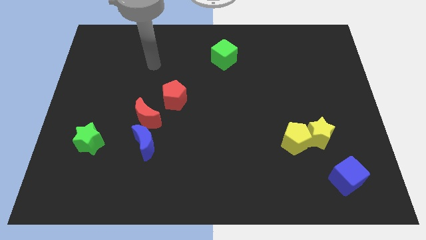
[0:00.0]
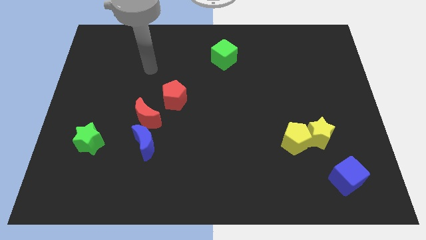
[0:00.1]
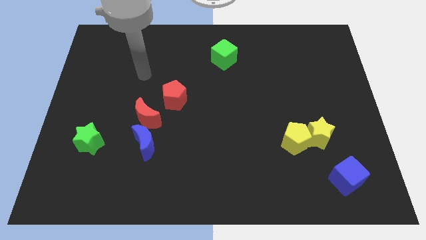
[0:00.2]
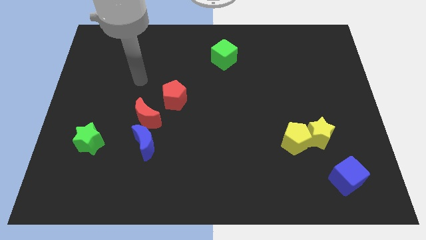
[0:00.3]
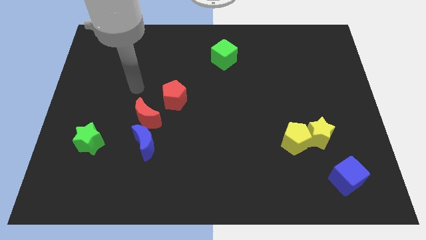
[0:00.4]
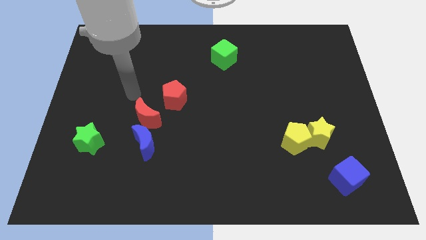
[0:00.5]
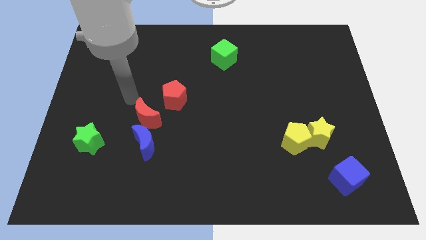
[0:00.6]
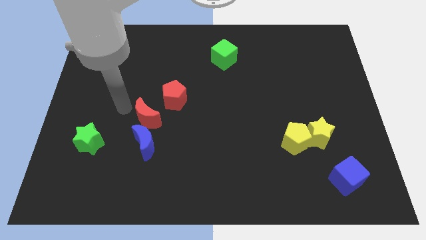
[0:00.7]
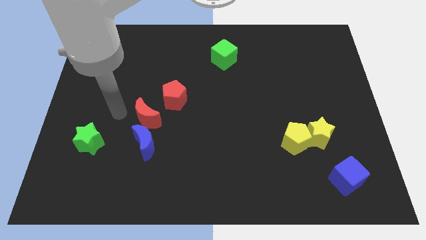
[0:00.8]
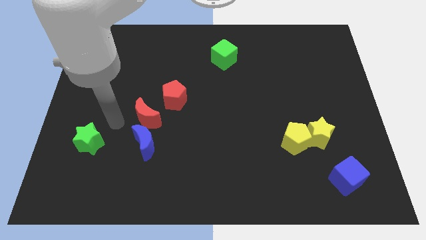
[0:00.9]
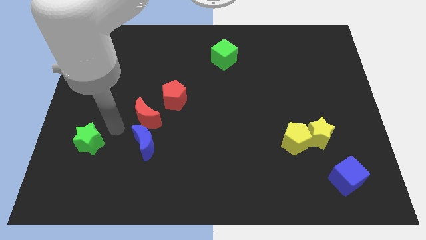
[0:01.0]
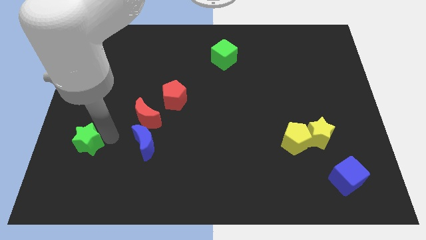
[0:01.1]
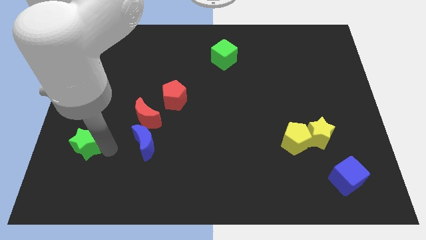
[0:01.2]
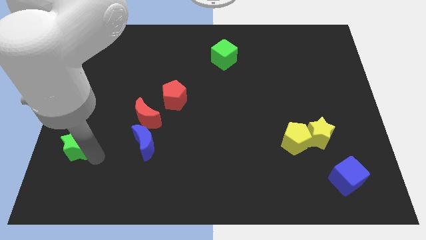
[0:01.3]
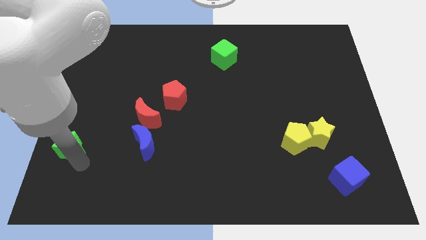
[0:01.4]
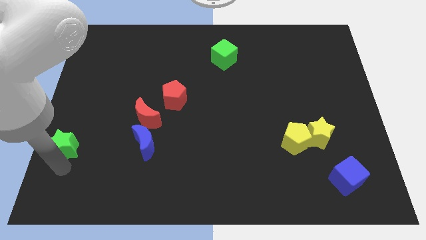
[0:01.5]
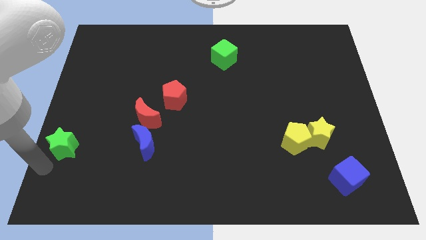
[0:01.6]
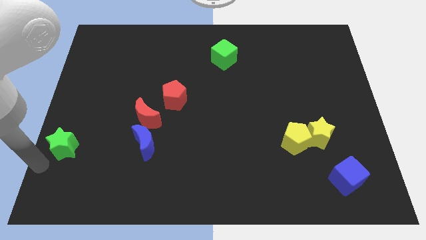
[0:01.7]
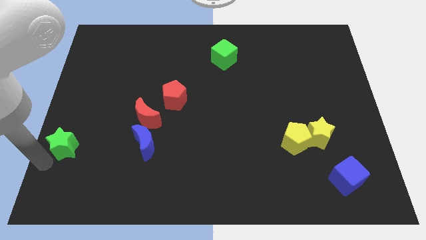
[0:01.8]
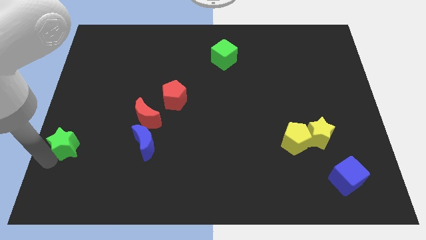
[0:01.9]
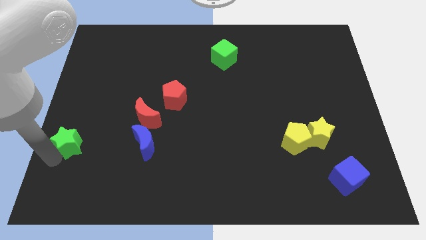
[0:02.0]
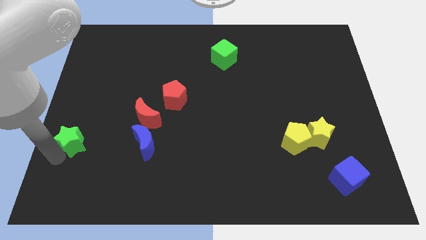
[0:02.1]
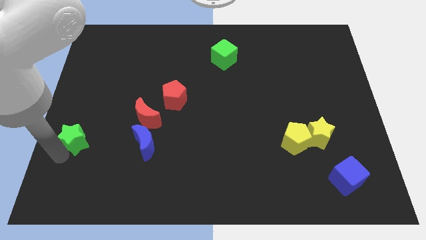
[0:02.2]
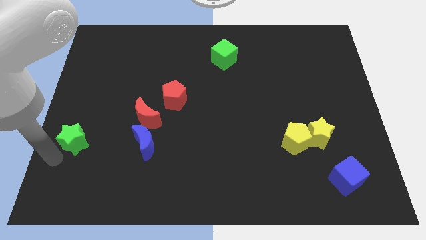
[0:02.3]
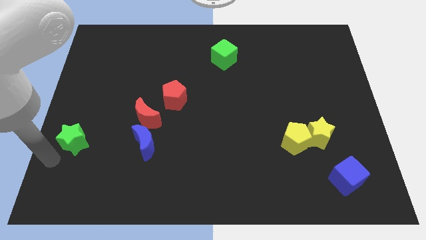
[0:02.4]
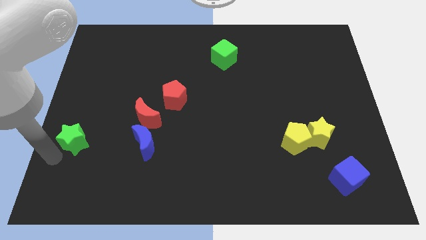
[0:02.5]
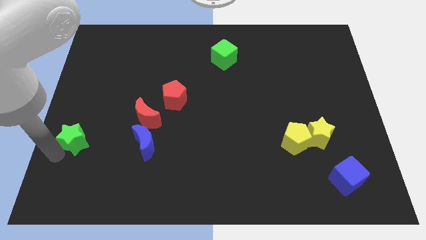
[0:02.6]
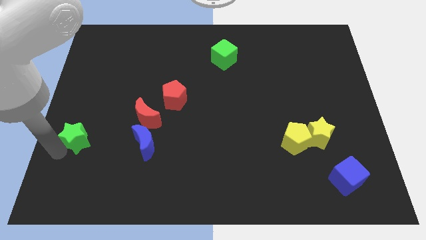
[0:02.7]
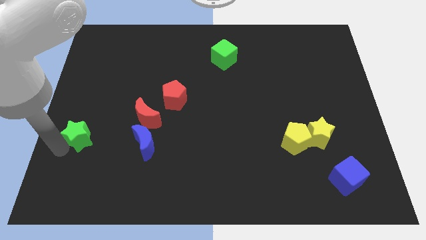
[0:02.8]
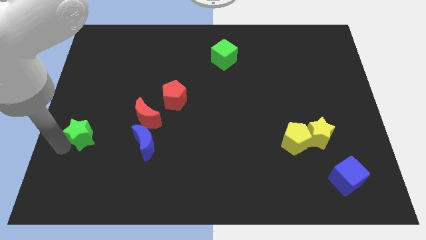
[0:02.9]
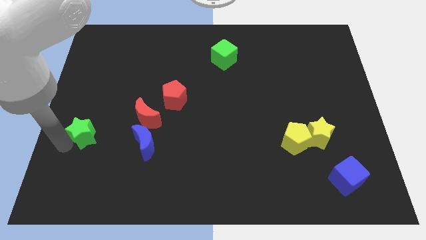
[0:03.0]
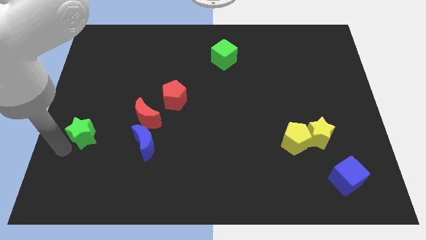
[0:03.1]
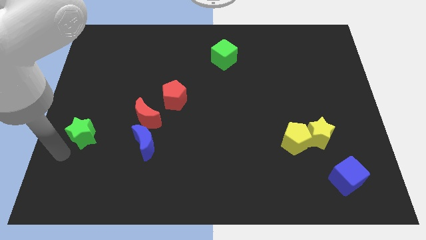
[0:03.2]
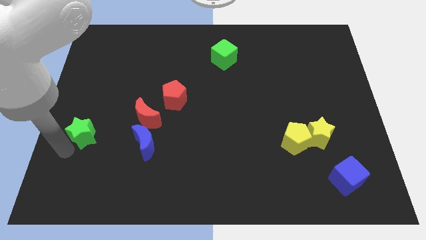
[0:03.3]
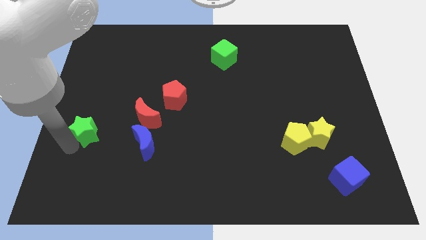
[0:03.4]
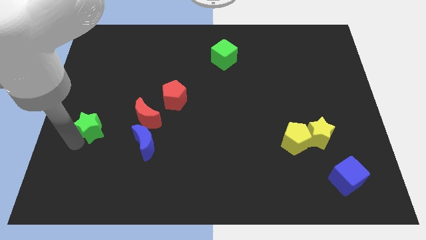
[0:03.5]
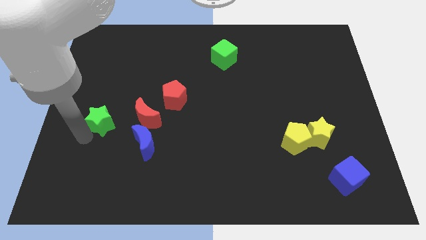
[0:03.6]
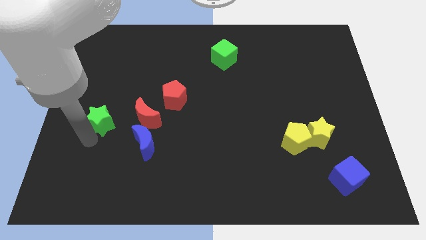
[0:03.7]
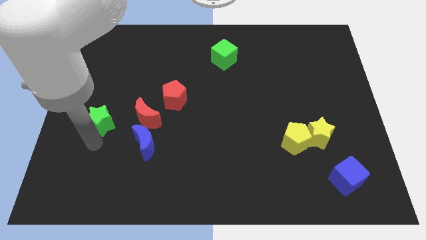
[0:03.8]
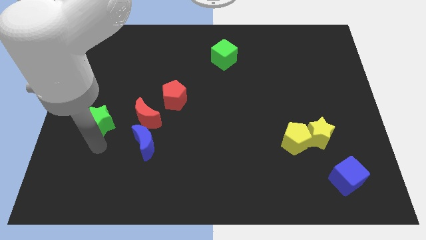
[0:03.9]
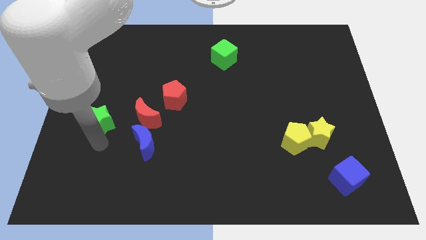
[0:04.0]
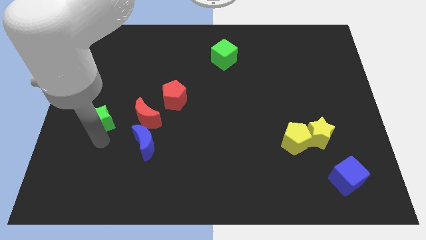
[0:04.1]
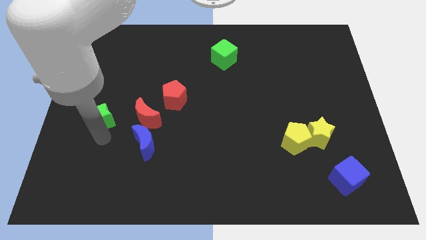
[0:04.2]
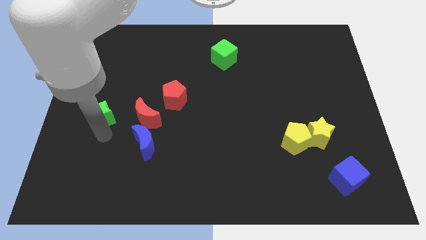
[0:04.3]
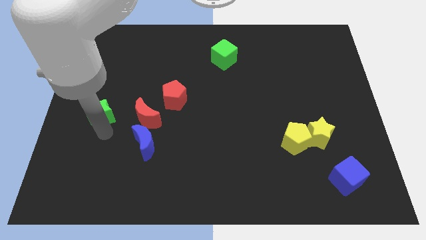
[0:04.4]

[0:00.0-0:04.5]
slightly slide the green star upwards

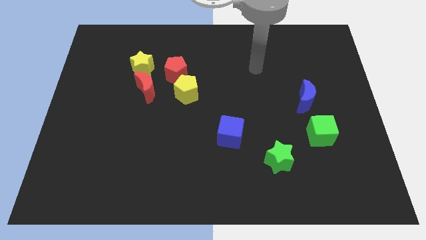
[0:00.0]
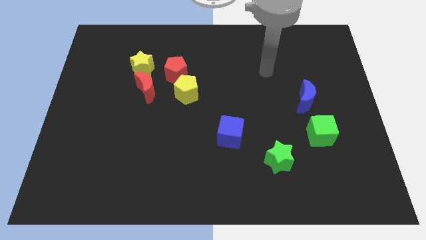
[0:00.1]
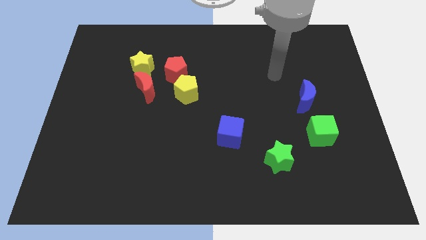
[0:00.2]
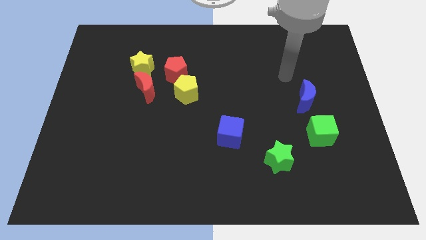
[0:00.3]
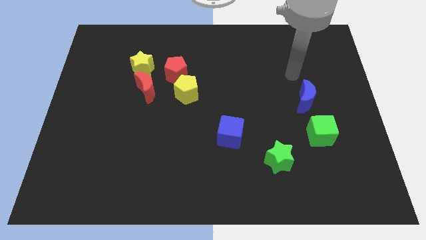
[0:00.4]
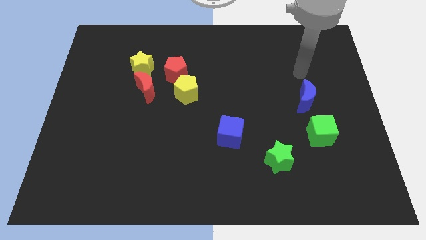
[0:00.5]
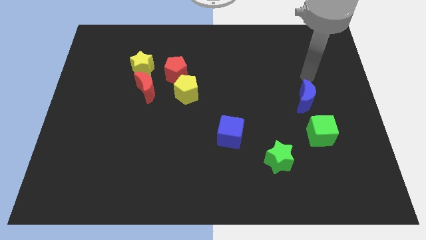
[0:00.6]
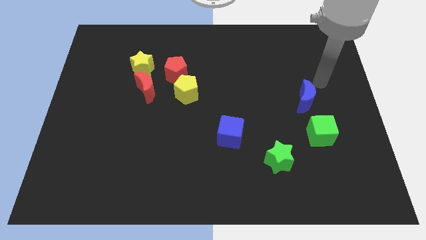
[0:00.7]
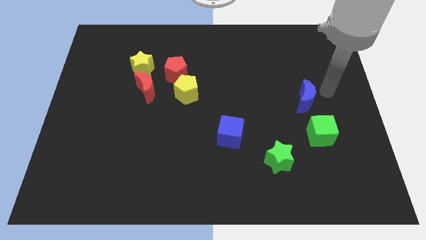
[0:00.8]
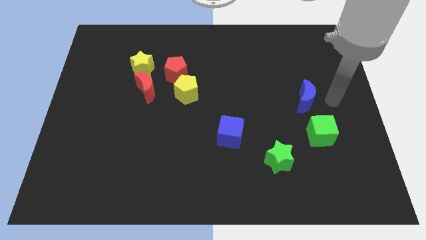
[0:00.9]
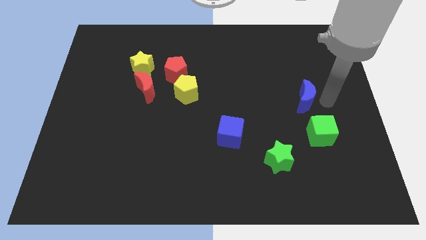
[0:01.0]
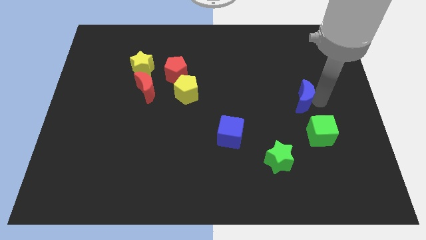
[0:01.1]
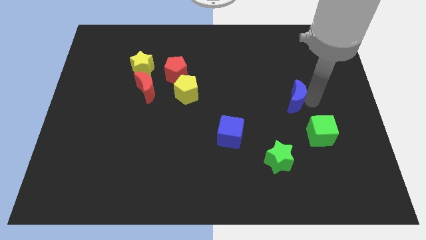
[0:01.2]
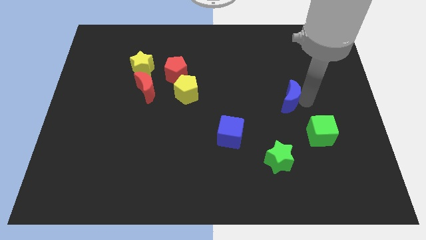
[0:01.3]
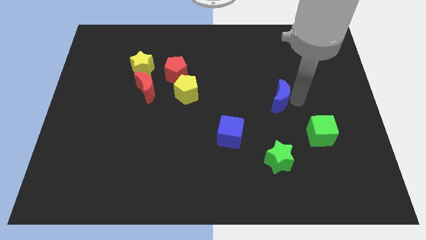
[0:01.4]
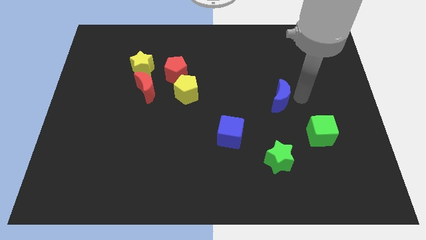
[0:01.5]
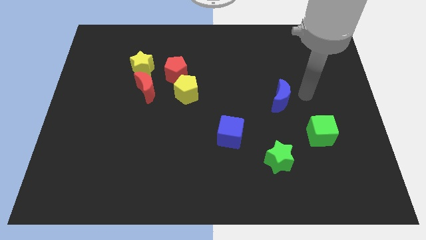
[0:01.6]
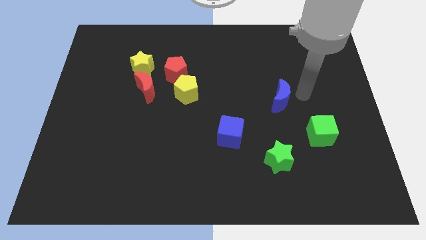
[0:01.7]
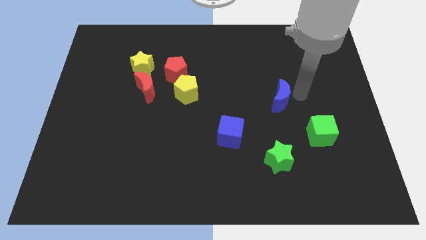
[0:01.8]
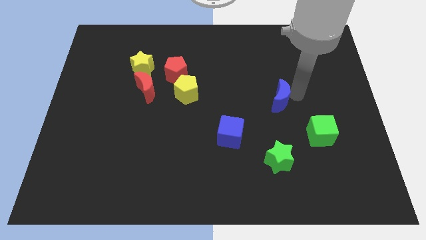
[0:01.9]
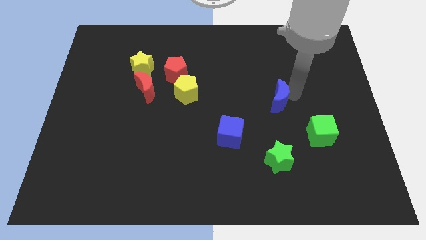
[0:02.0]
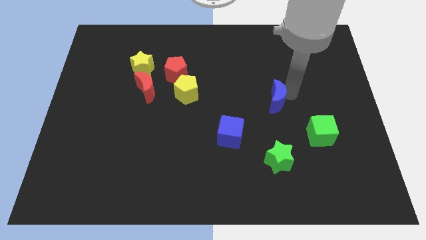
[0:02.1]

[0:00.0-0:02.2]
slide the blue moon to the left somewhat

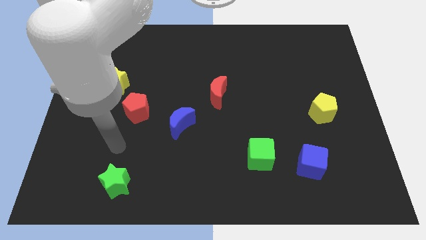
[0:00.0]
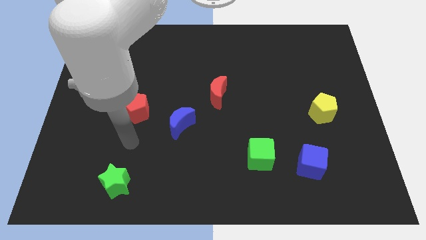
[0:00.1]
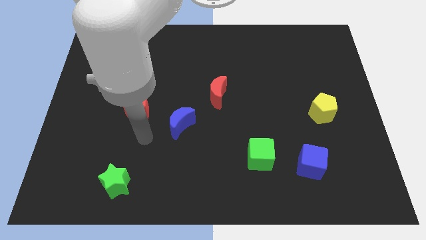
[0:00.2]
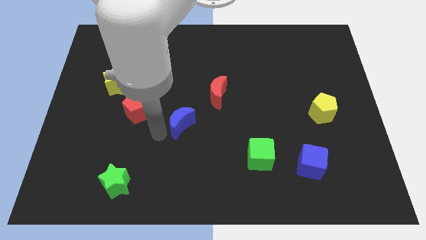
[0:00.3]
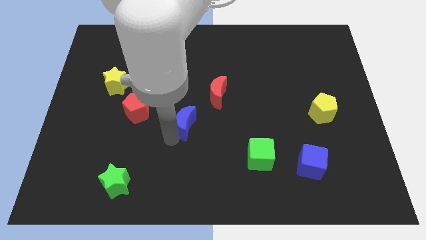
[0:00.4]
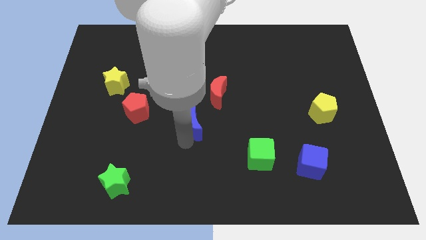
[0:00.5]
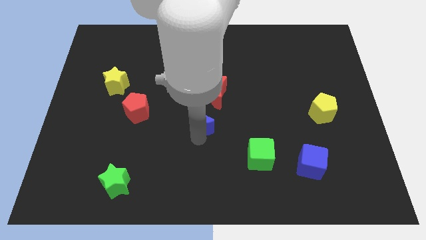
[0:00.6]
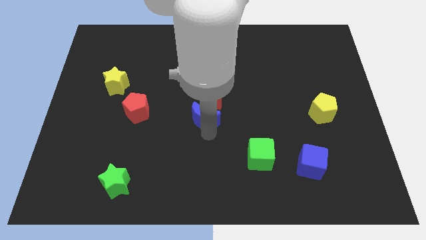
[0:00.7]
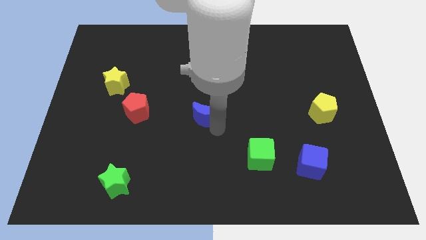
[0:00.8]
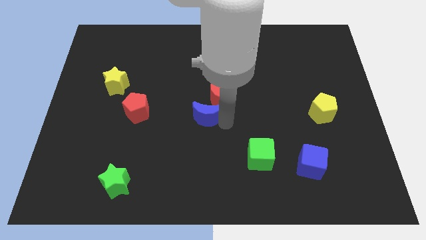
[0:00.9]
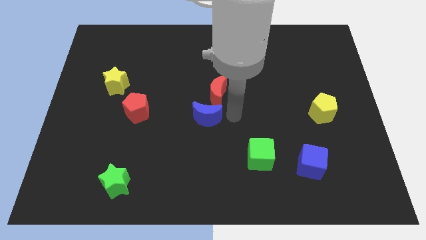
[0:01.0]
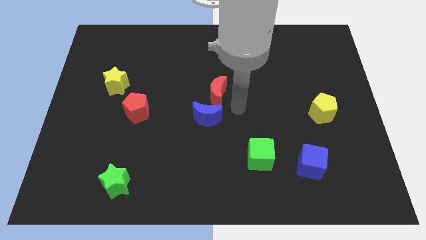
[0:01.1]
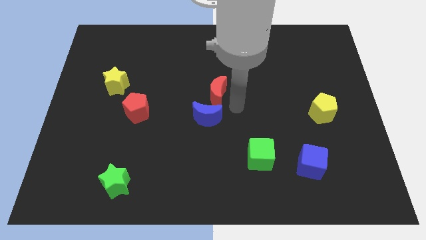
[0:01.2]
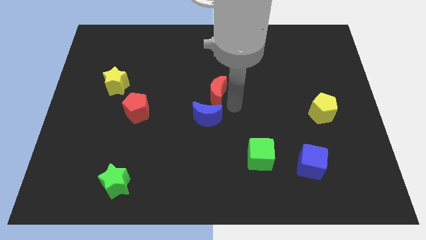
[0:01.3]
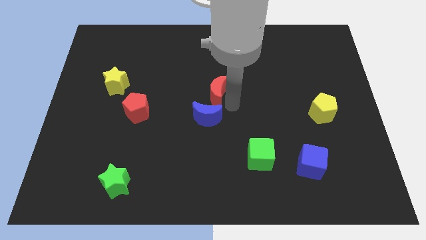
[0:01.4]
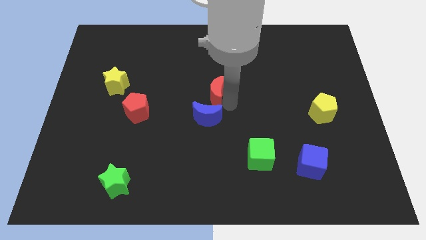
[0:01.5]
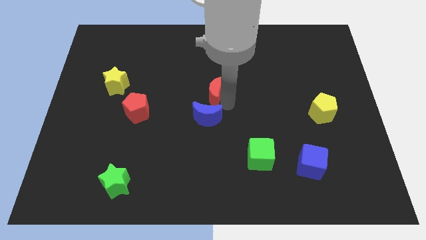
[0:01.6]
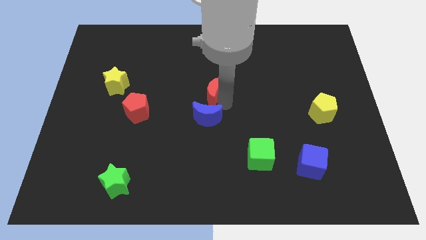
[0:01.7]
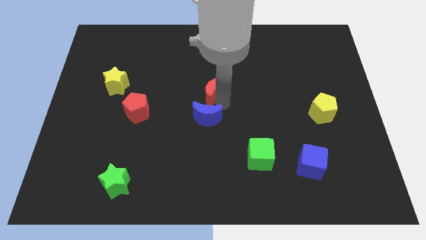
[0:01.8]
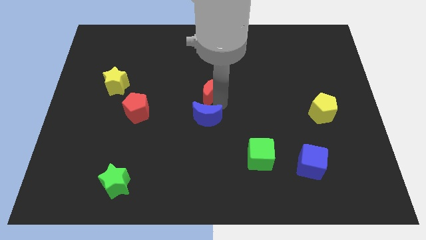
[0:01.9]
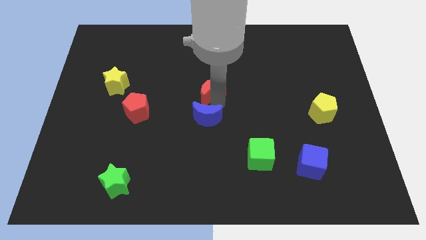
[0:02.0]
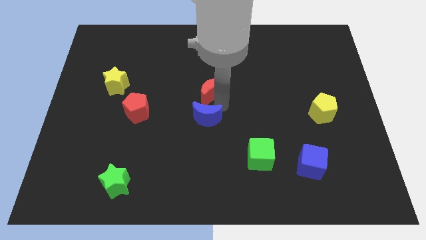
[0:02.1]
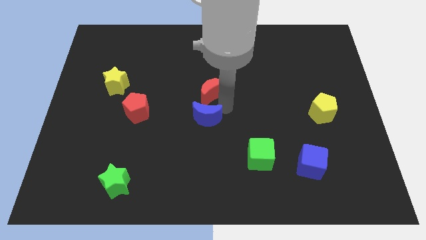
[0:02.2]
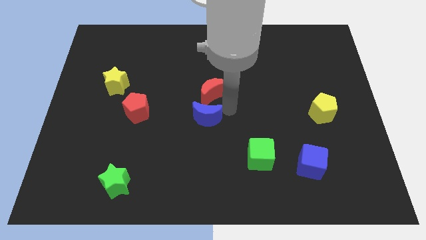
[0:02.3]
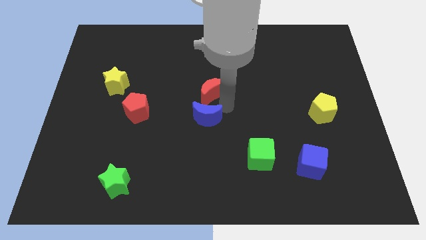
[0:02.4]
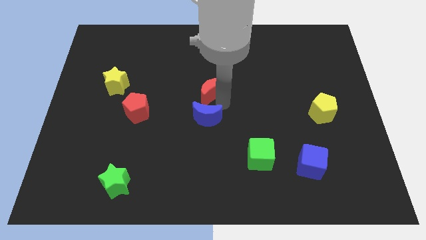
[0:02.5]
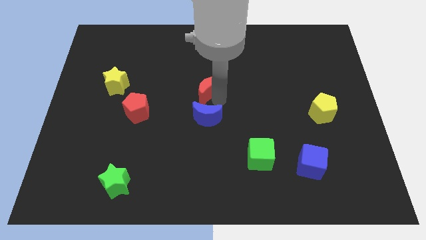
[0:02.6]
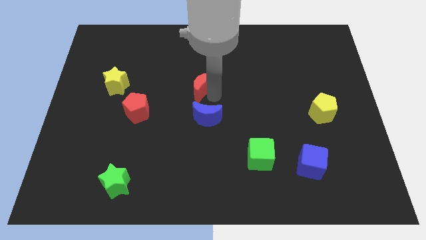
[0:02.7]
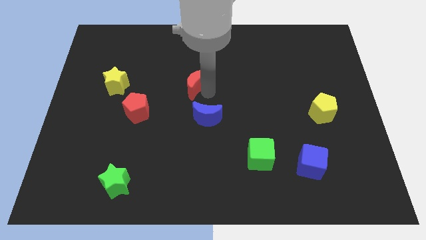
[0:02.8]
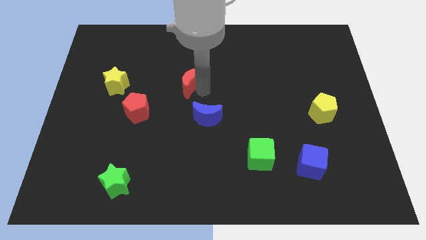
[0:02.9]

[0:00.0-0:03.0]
slide the red moon a little diagonally up and left
